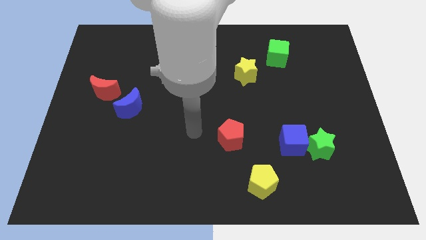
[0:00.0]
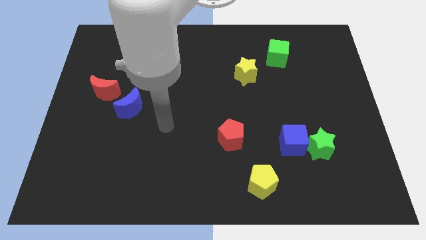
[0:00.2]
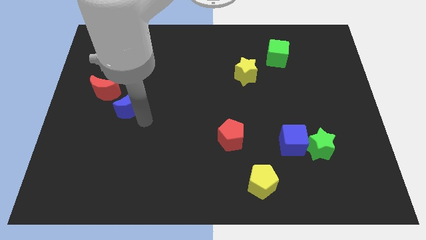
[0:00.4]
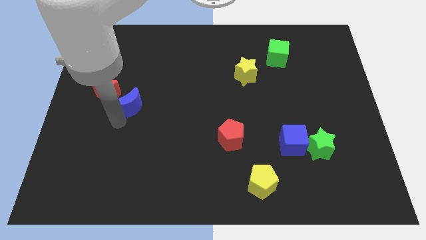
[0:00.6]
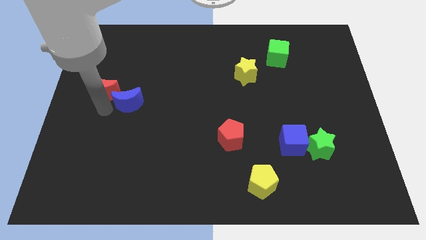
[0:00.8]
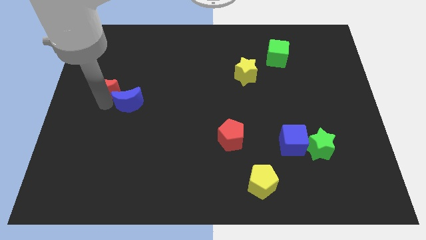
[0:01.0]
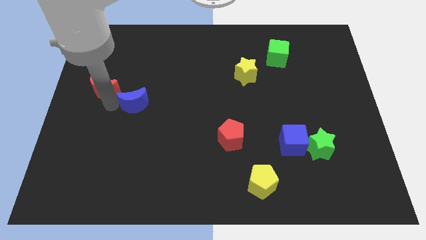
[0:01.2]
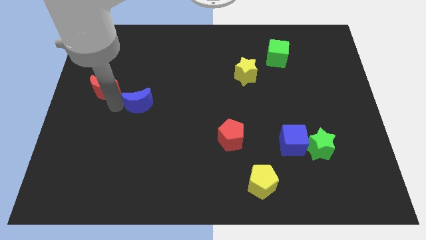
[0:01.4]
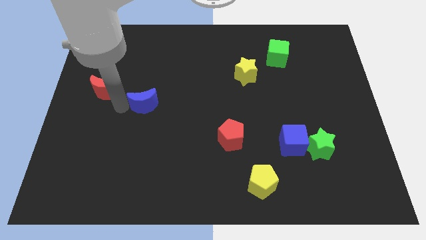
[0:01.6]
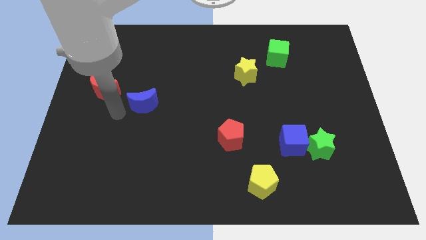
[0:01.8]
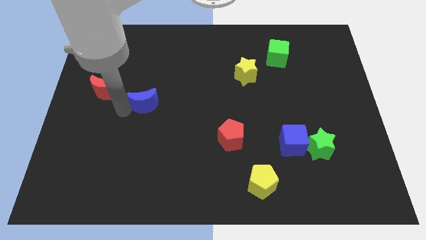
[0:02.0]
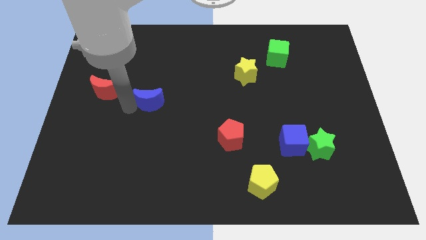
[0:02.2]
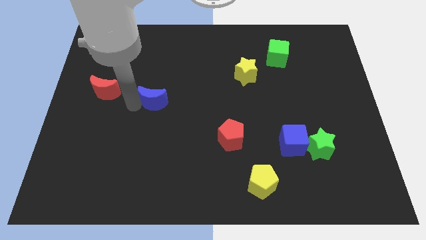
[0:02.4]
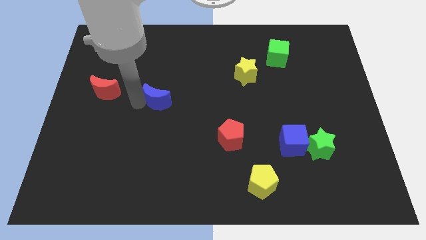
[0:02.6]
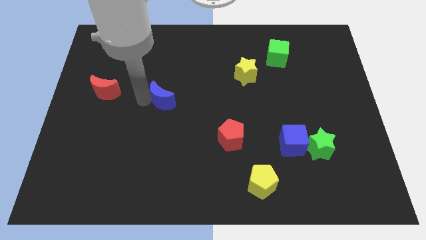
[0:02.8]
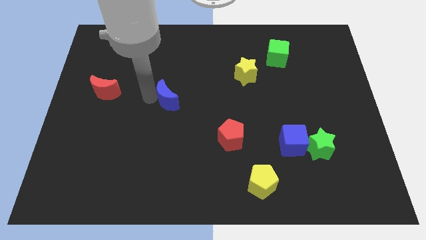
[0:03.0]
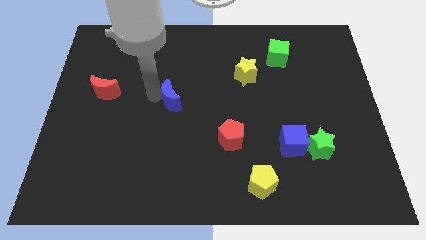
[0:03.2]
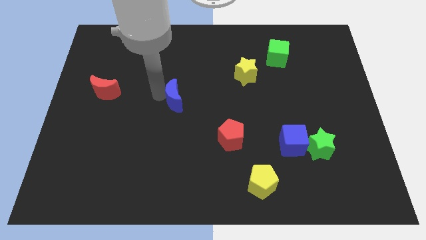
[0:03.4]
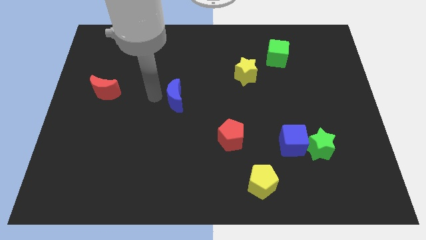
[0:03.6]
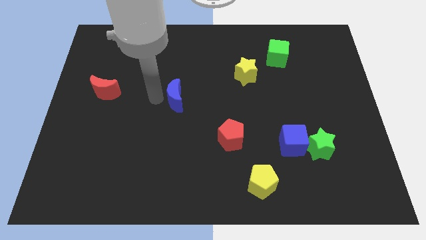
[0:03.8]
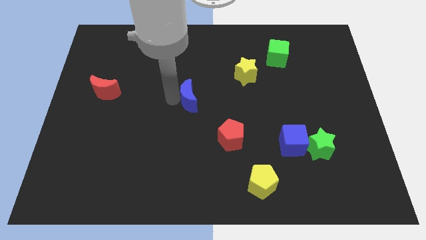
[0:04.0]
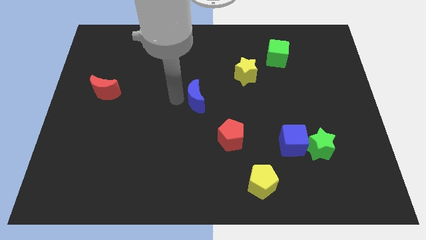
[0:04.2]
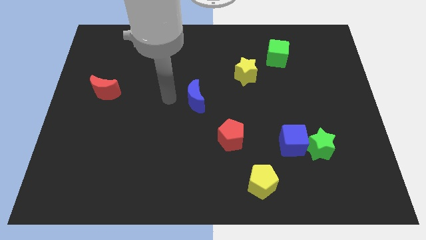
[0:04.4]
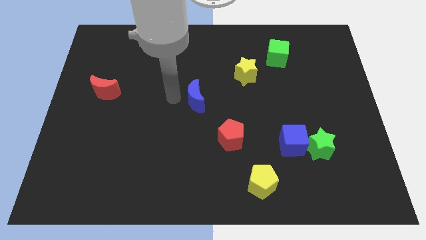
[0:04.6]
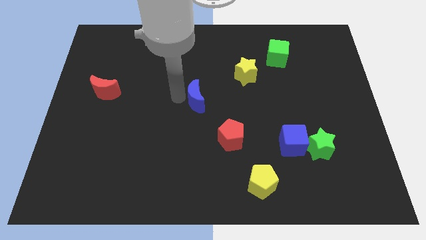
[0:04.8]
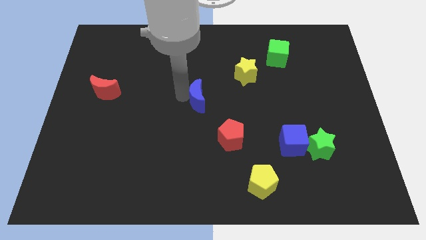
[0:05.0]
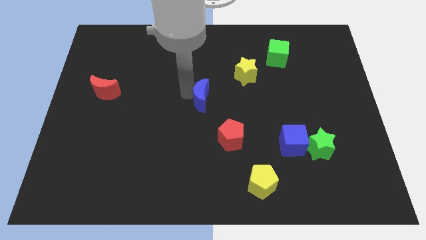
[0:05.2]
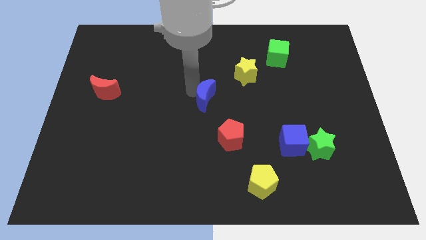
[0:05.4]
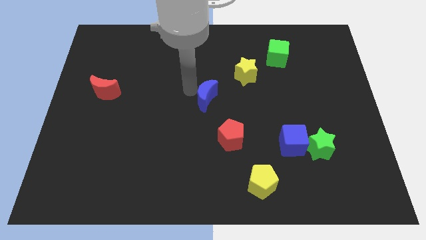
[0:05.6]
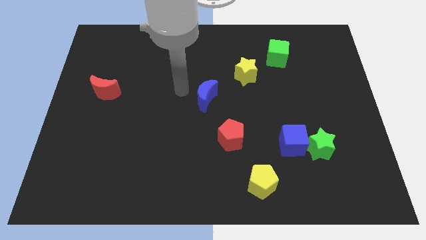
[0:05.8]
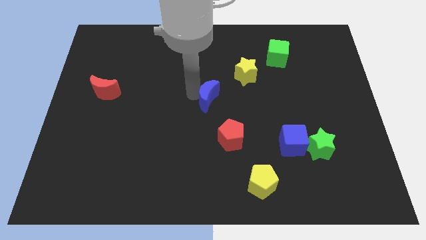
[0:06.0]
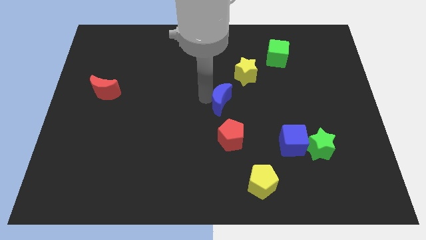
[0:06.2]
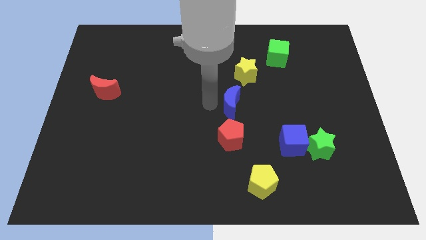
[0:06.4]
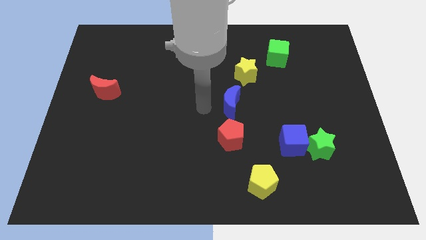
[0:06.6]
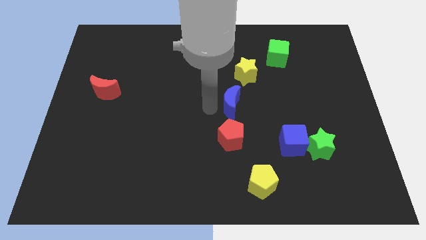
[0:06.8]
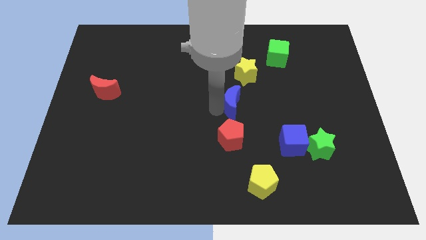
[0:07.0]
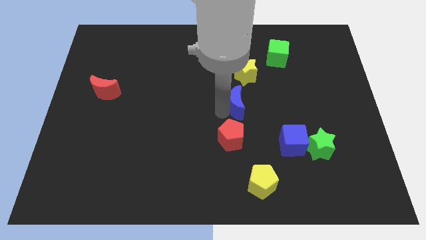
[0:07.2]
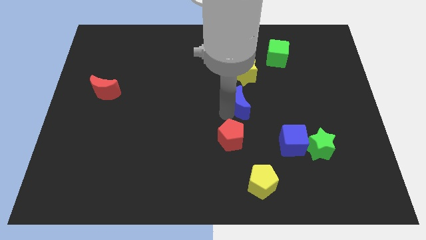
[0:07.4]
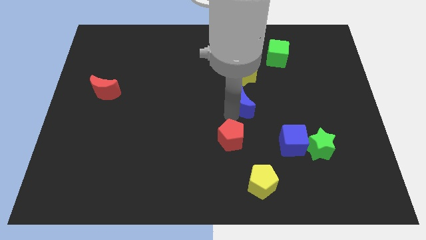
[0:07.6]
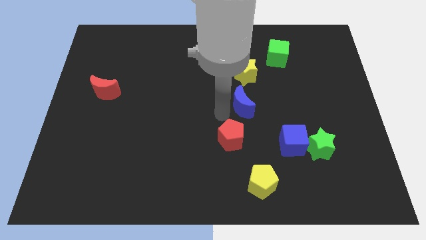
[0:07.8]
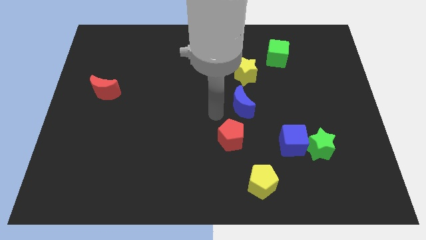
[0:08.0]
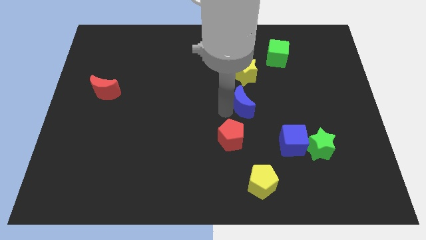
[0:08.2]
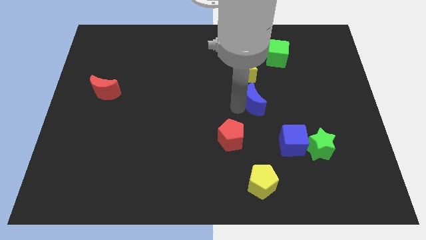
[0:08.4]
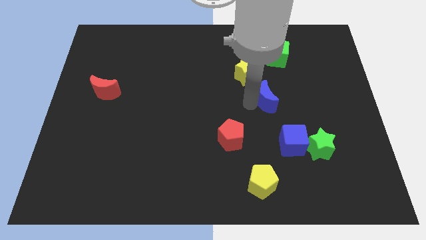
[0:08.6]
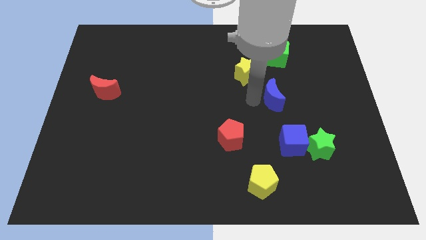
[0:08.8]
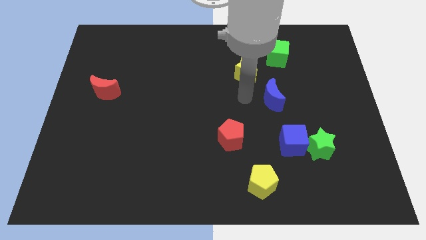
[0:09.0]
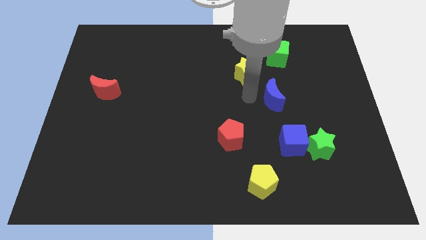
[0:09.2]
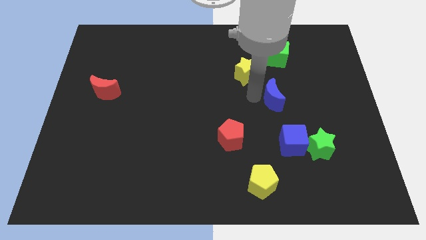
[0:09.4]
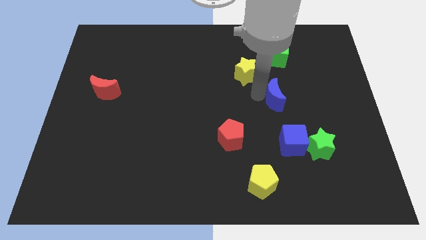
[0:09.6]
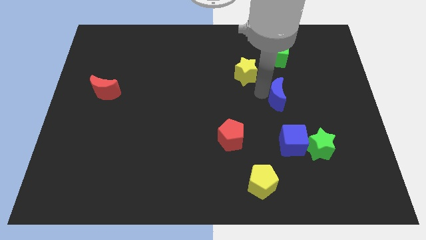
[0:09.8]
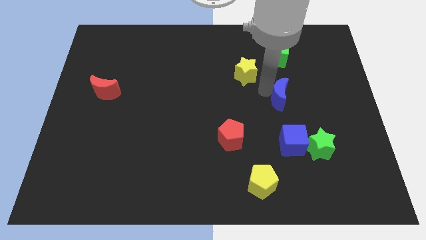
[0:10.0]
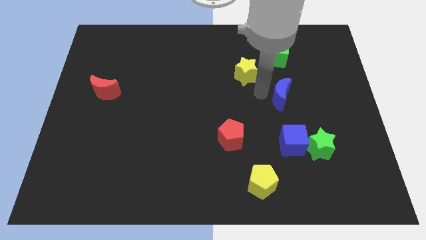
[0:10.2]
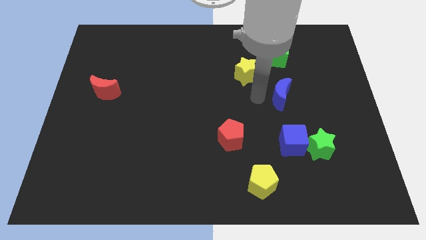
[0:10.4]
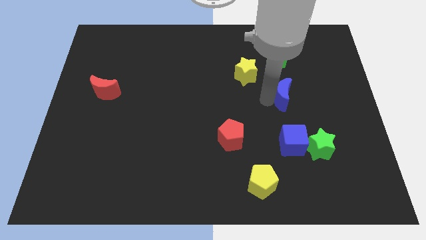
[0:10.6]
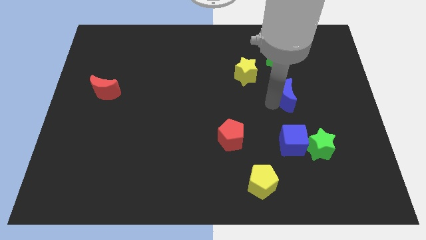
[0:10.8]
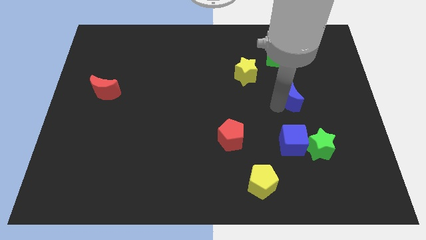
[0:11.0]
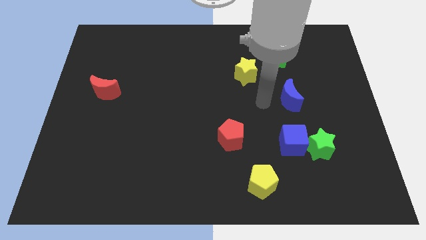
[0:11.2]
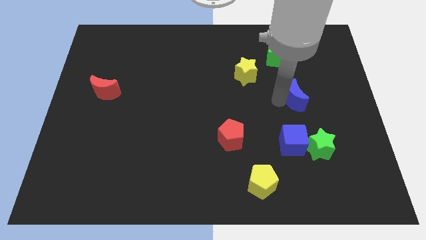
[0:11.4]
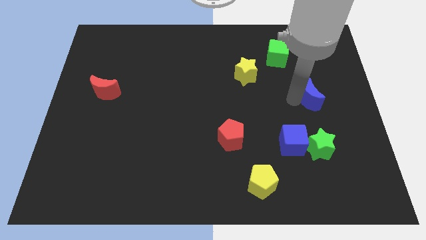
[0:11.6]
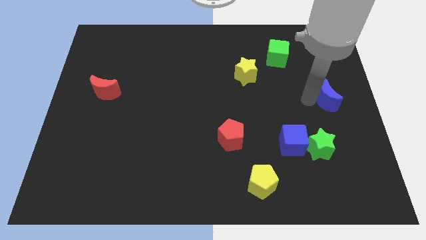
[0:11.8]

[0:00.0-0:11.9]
put the blue moon to the right side of the board
